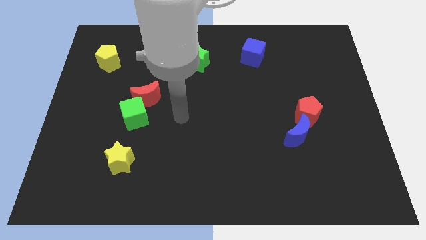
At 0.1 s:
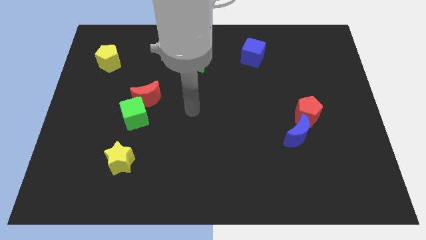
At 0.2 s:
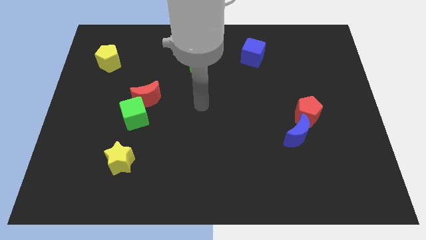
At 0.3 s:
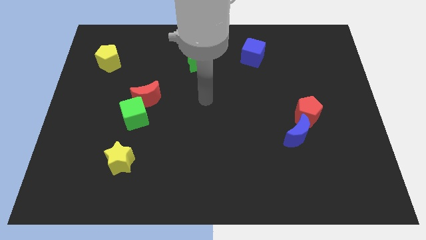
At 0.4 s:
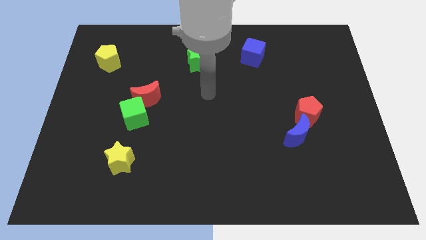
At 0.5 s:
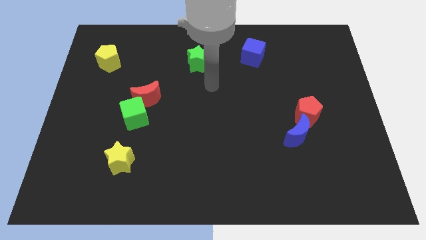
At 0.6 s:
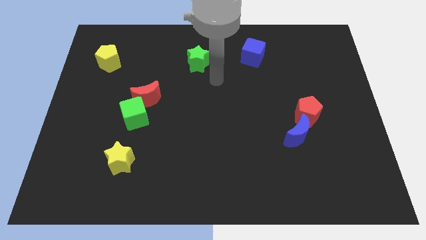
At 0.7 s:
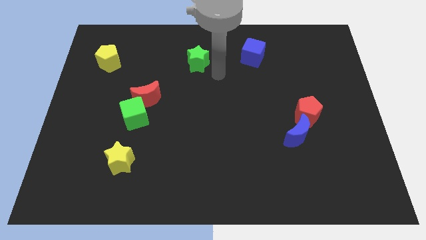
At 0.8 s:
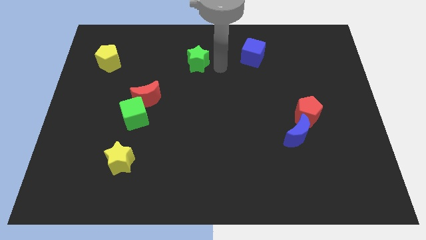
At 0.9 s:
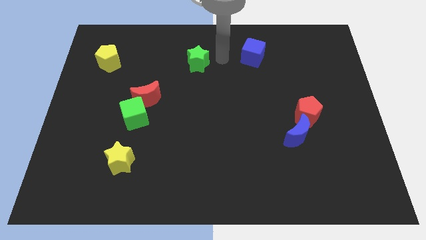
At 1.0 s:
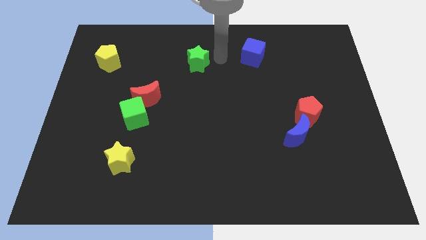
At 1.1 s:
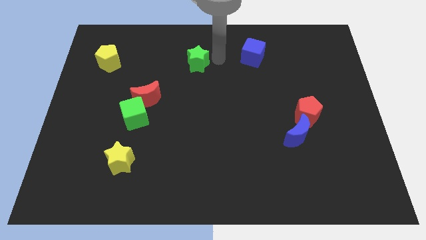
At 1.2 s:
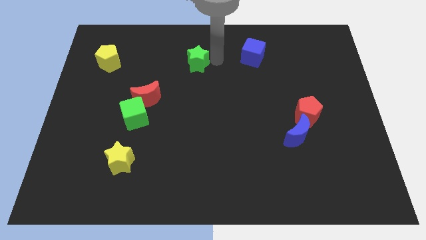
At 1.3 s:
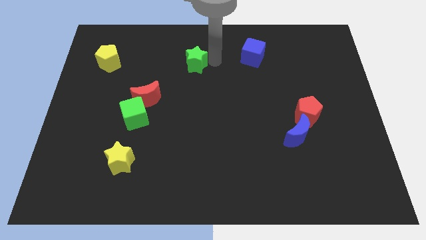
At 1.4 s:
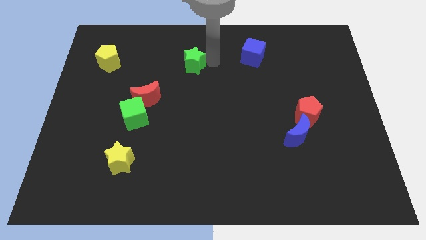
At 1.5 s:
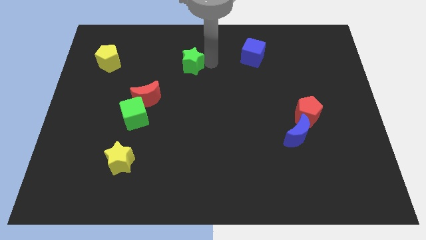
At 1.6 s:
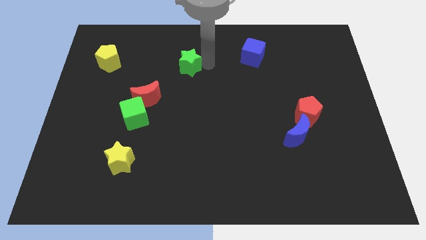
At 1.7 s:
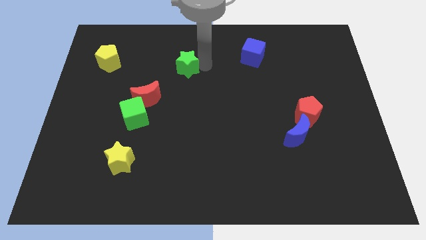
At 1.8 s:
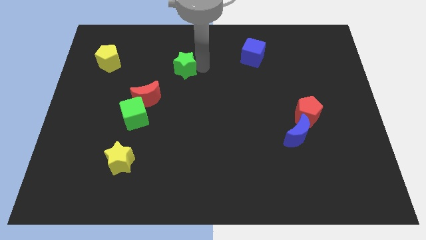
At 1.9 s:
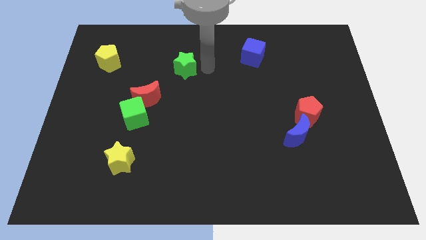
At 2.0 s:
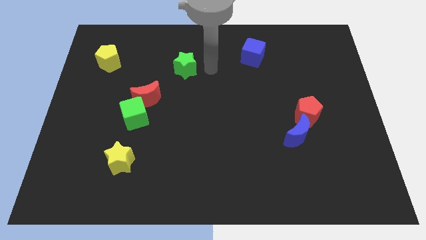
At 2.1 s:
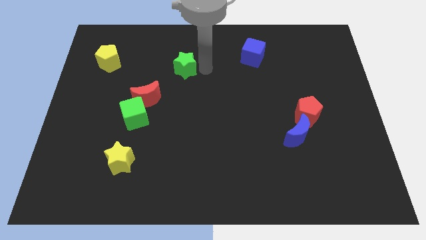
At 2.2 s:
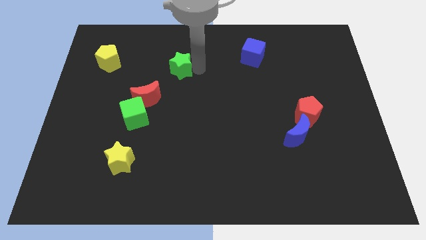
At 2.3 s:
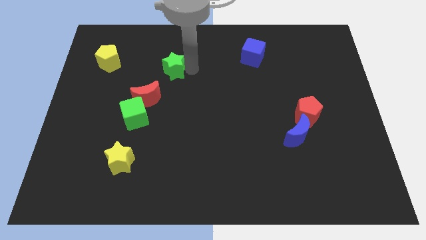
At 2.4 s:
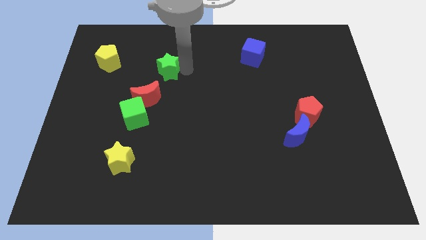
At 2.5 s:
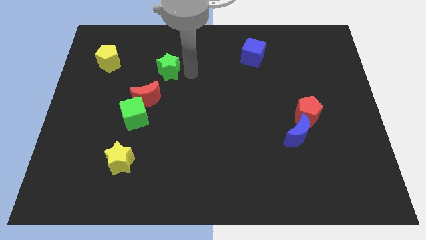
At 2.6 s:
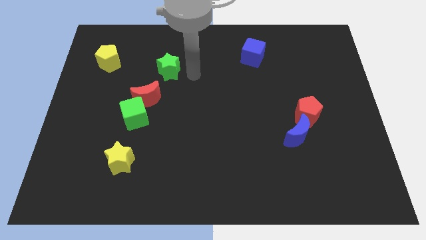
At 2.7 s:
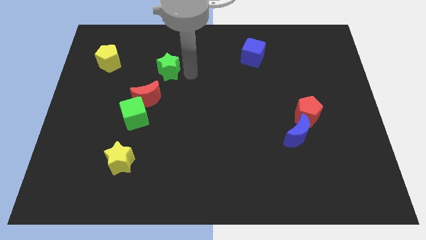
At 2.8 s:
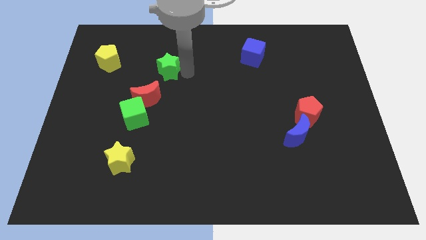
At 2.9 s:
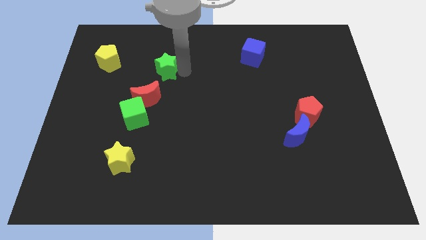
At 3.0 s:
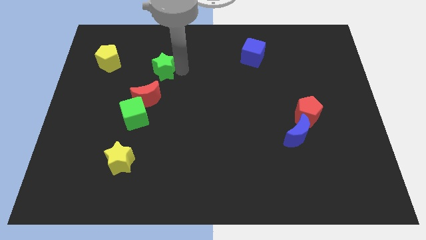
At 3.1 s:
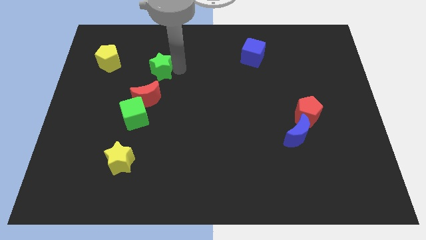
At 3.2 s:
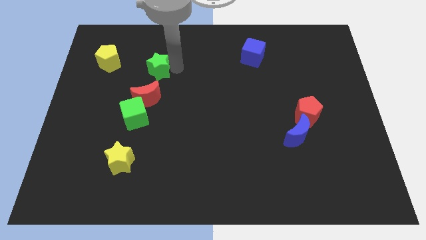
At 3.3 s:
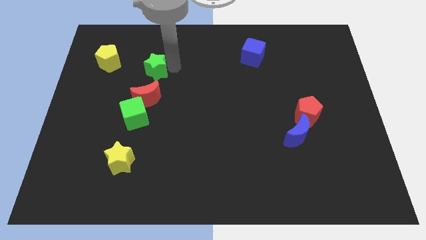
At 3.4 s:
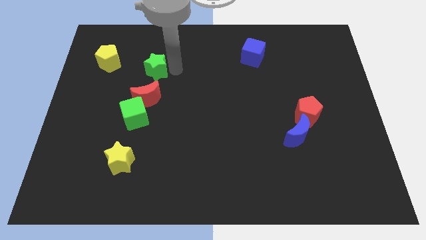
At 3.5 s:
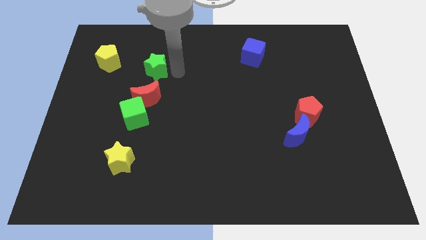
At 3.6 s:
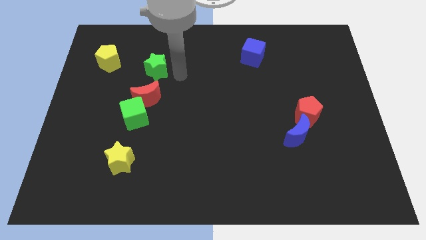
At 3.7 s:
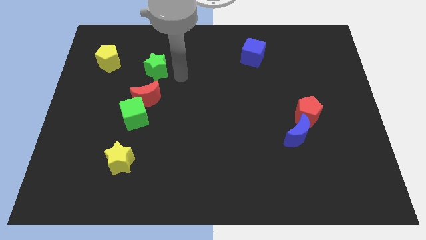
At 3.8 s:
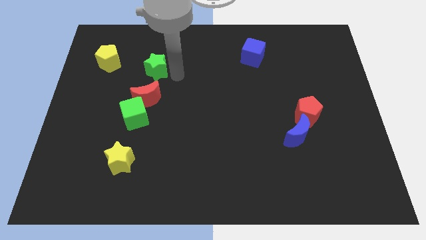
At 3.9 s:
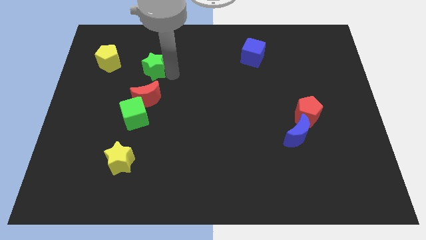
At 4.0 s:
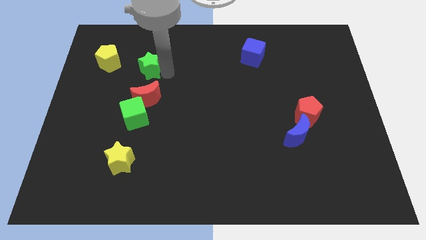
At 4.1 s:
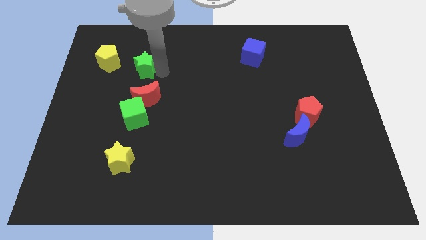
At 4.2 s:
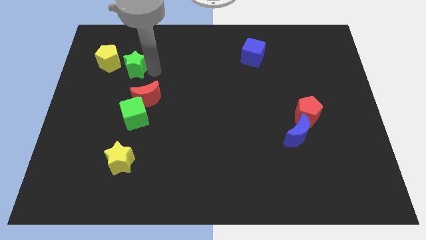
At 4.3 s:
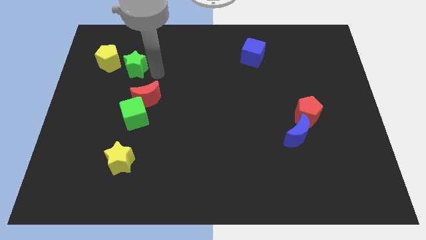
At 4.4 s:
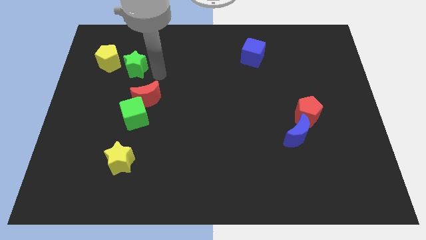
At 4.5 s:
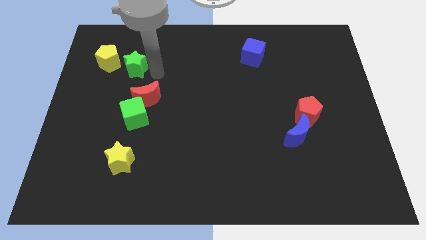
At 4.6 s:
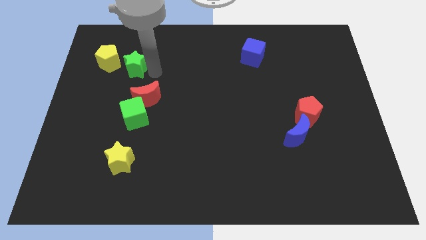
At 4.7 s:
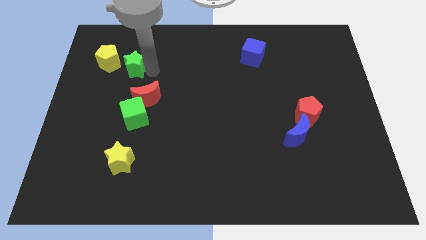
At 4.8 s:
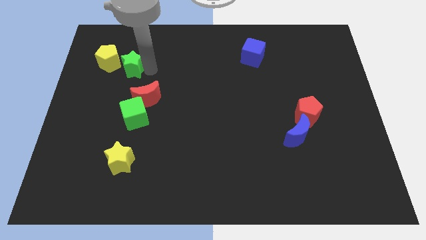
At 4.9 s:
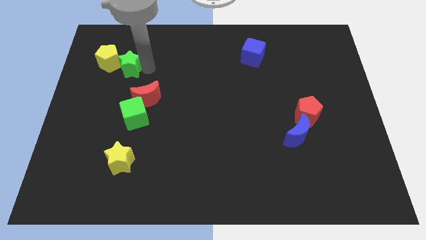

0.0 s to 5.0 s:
push the green star to the yellow pentagon

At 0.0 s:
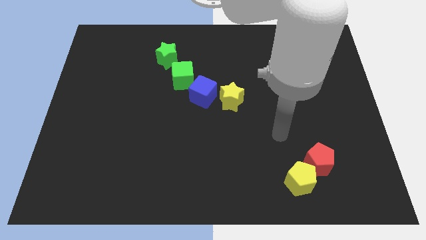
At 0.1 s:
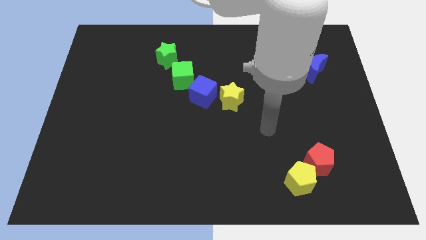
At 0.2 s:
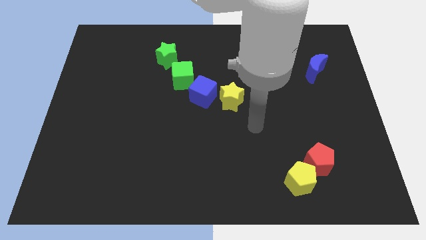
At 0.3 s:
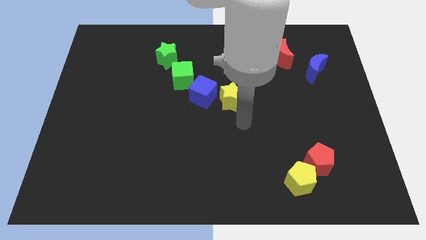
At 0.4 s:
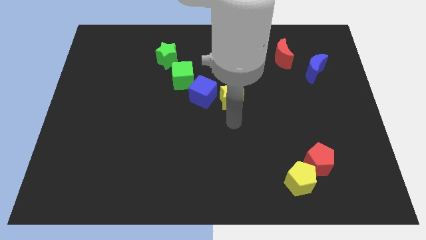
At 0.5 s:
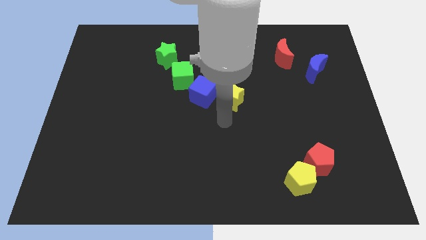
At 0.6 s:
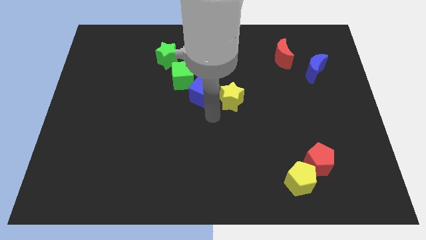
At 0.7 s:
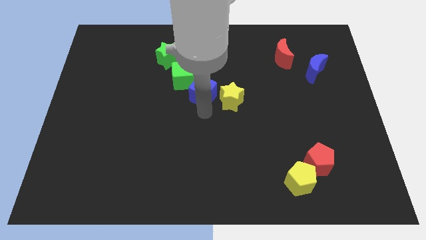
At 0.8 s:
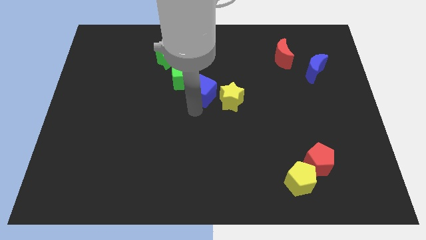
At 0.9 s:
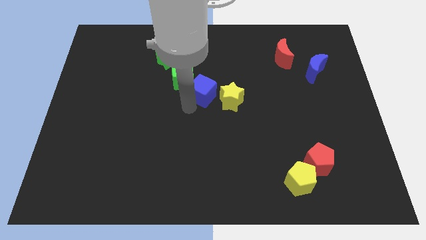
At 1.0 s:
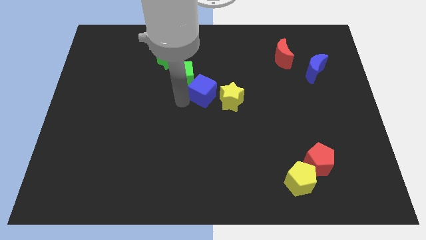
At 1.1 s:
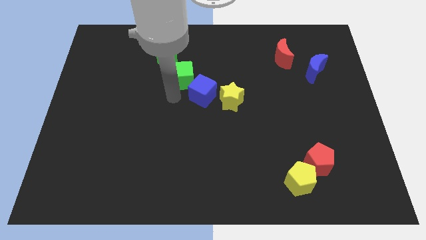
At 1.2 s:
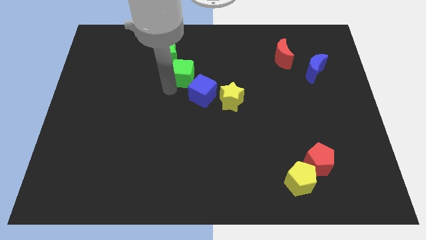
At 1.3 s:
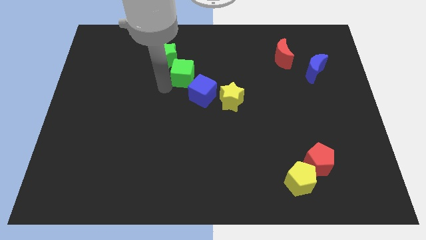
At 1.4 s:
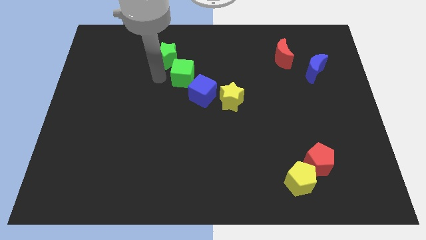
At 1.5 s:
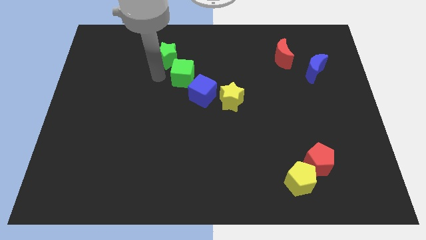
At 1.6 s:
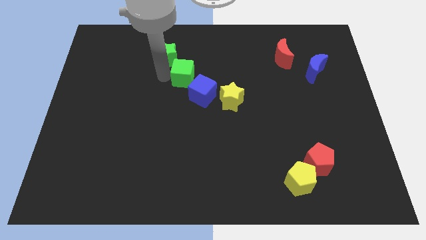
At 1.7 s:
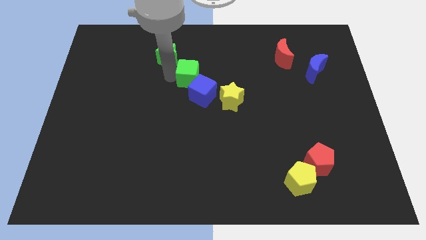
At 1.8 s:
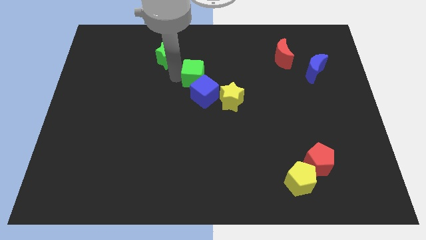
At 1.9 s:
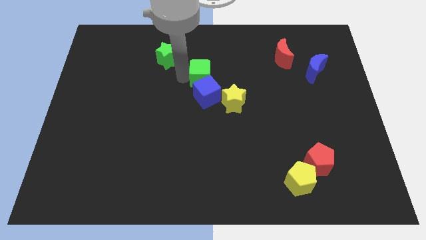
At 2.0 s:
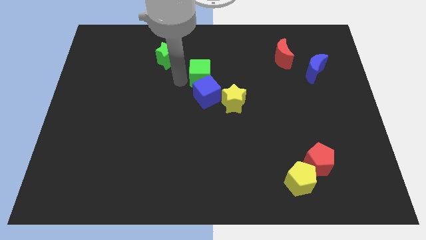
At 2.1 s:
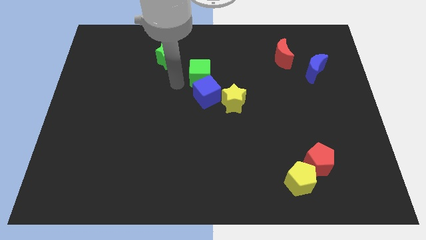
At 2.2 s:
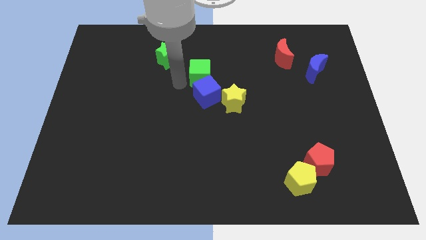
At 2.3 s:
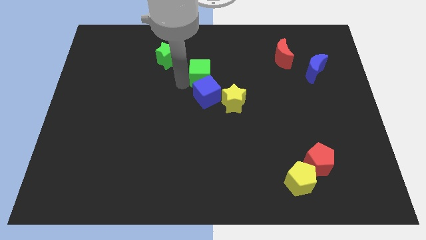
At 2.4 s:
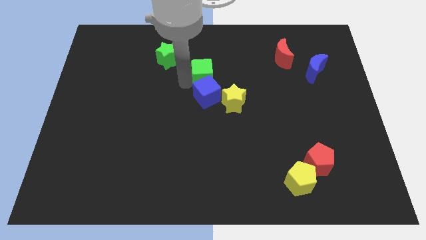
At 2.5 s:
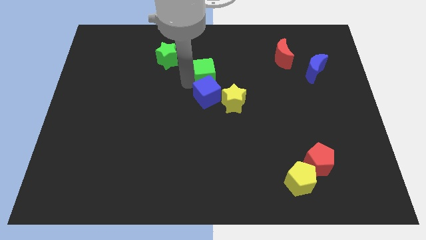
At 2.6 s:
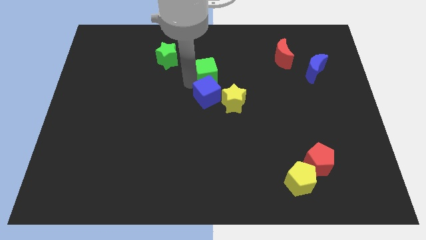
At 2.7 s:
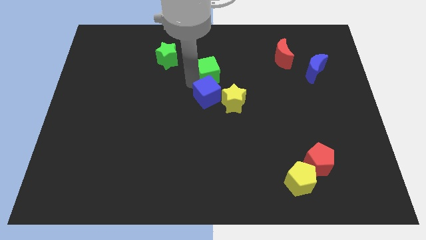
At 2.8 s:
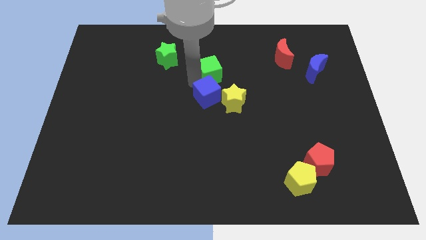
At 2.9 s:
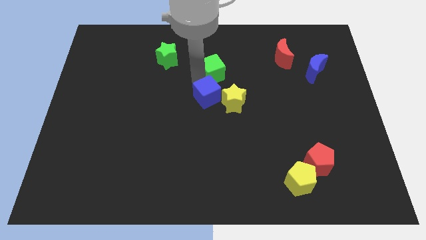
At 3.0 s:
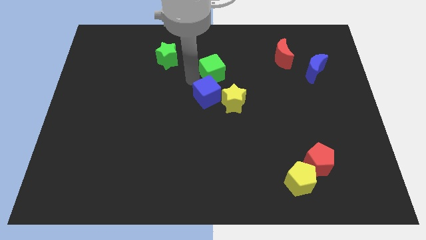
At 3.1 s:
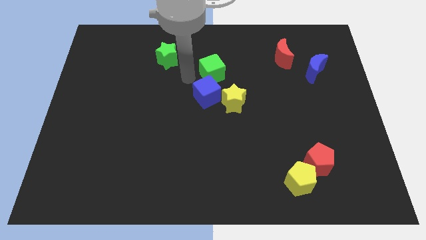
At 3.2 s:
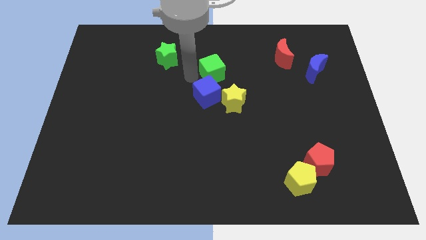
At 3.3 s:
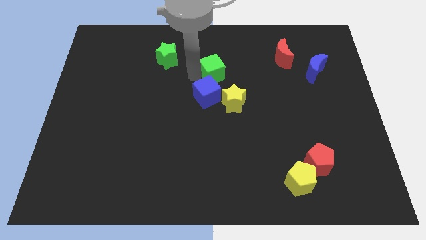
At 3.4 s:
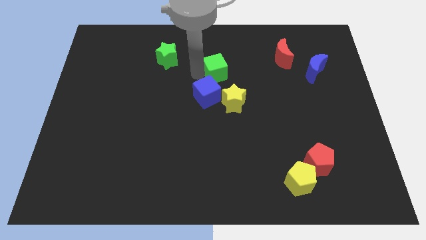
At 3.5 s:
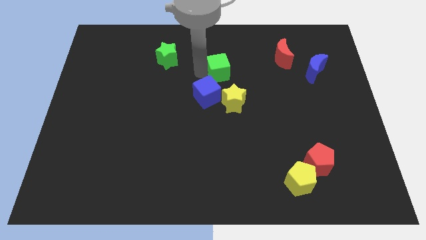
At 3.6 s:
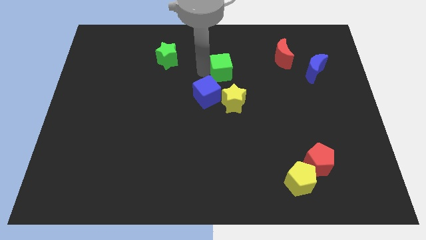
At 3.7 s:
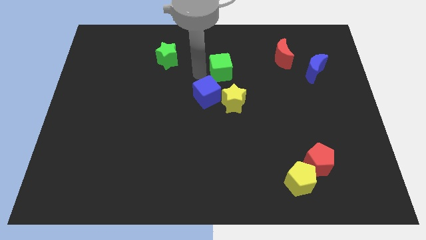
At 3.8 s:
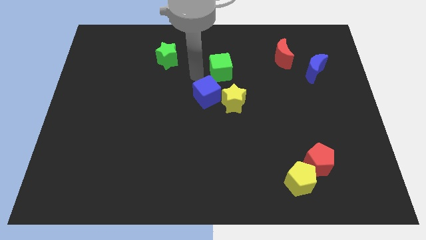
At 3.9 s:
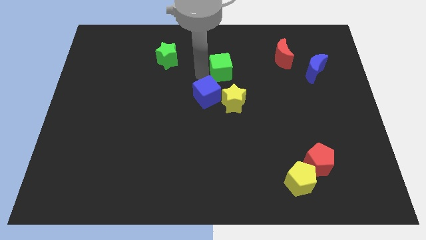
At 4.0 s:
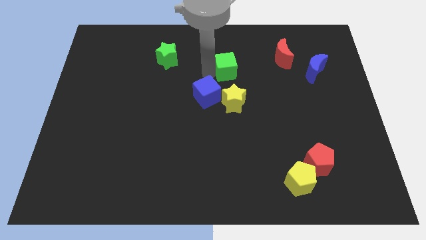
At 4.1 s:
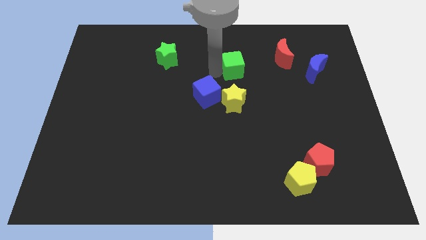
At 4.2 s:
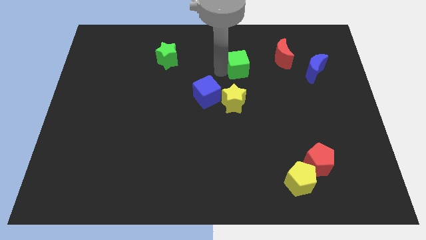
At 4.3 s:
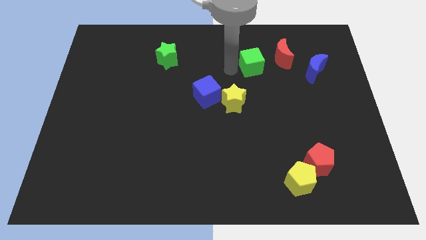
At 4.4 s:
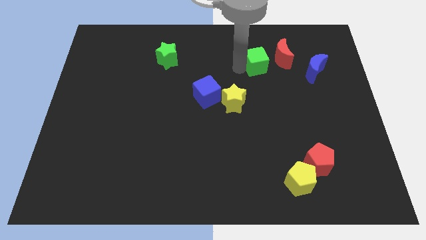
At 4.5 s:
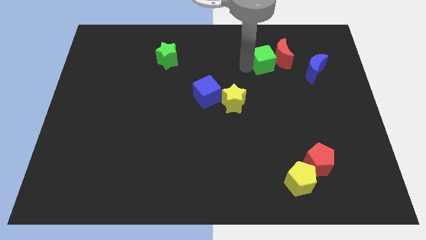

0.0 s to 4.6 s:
slide the green cube to the red moon
